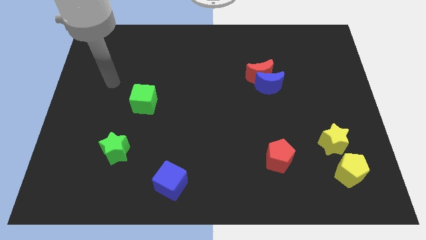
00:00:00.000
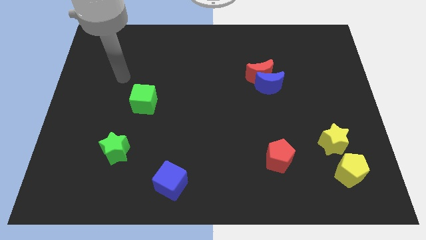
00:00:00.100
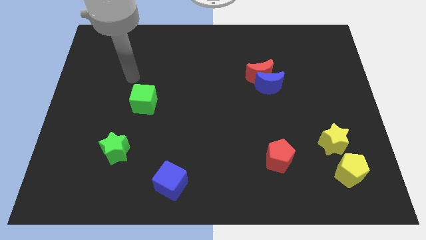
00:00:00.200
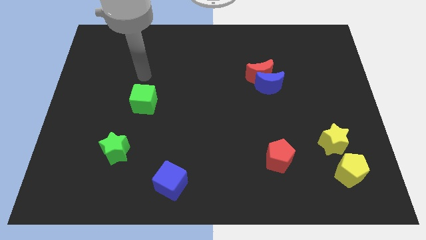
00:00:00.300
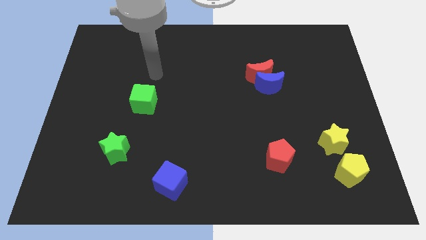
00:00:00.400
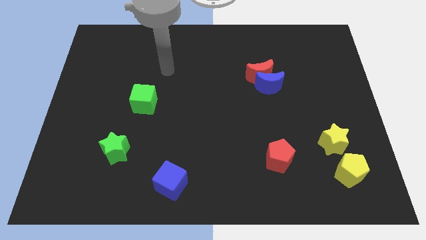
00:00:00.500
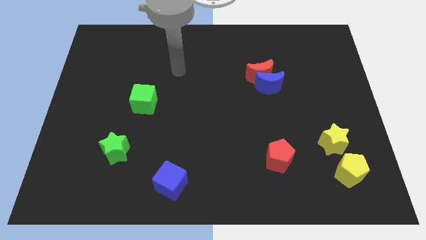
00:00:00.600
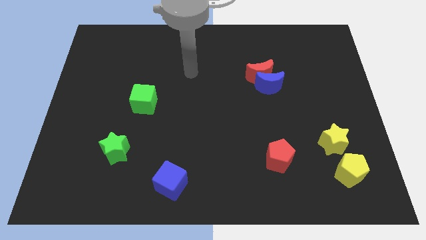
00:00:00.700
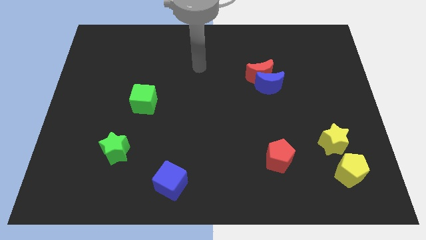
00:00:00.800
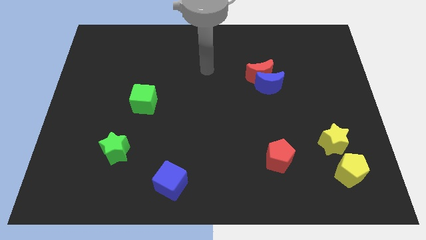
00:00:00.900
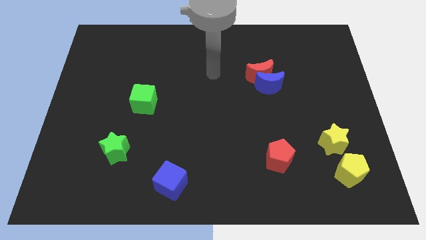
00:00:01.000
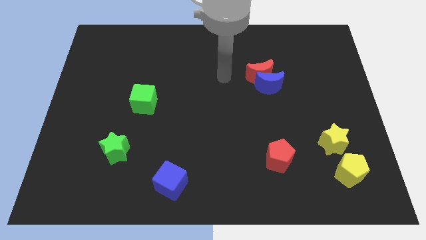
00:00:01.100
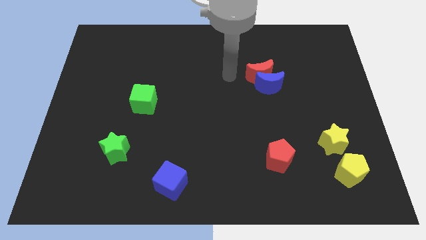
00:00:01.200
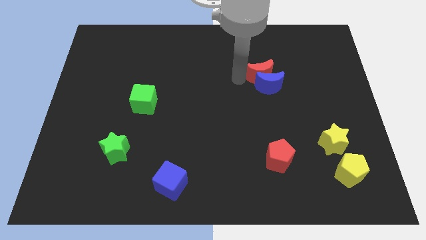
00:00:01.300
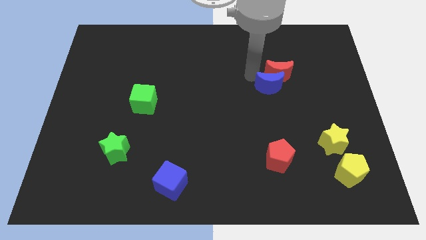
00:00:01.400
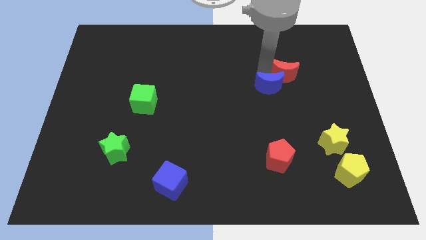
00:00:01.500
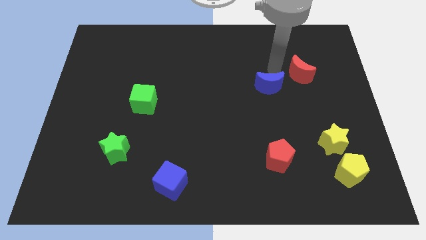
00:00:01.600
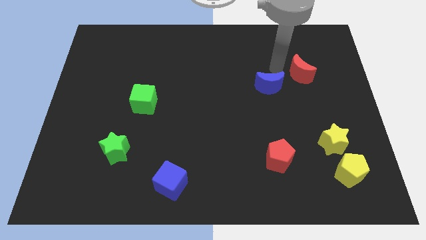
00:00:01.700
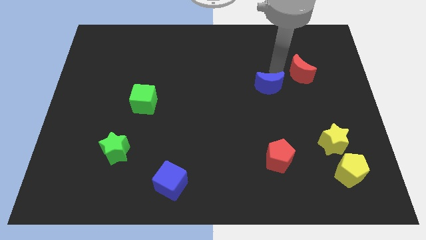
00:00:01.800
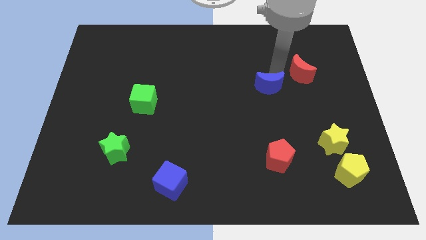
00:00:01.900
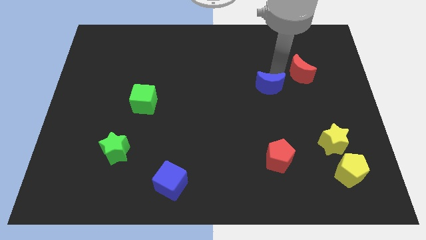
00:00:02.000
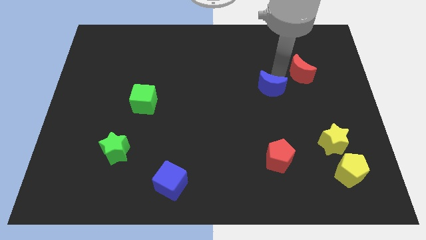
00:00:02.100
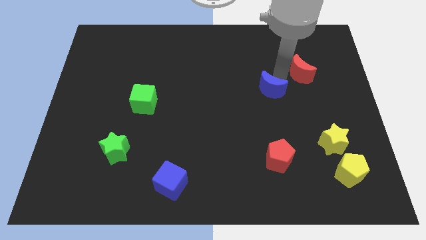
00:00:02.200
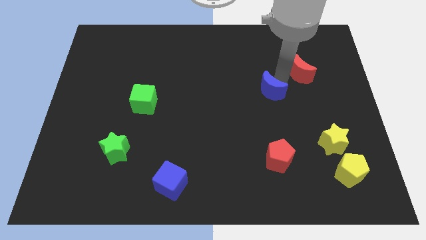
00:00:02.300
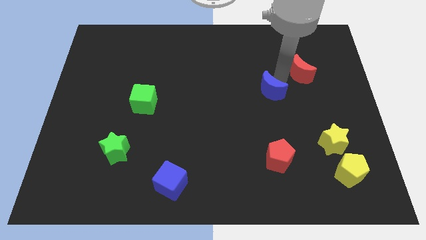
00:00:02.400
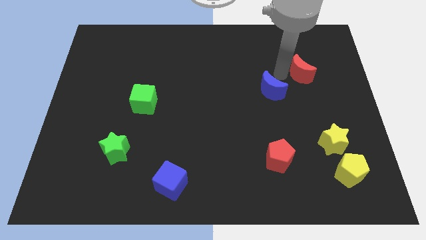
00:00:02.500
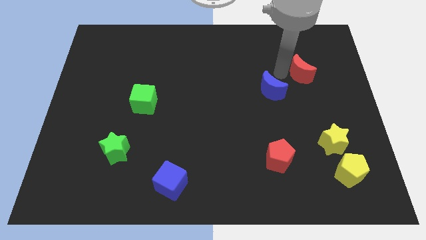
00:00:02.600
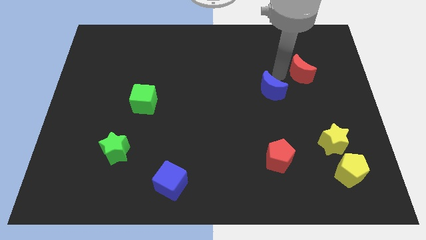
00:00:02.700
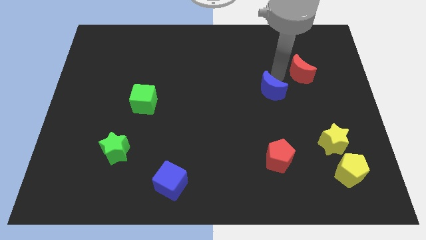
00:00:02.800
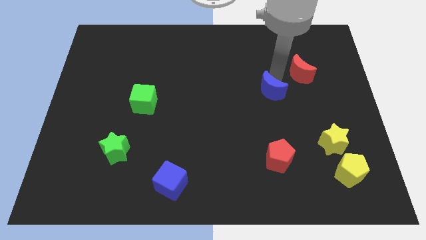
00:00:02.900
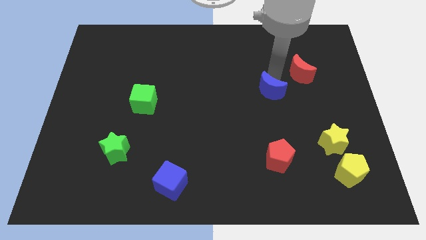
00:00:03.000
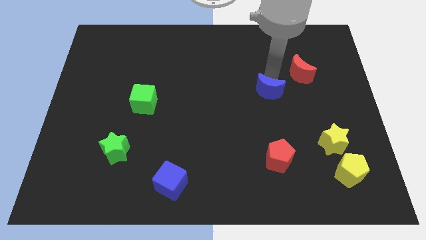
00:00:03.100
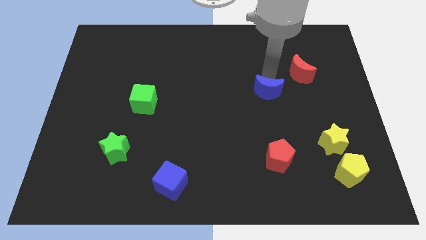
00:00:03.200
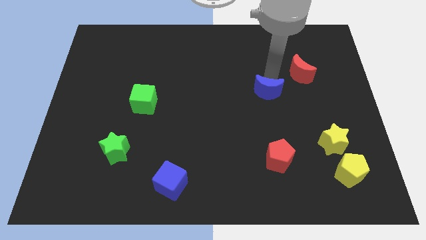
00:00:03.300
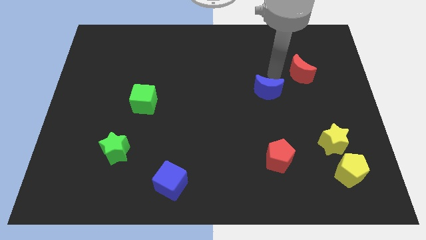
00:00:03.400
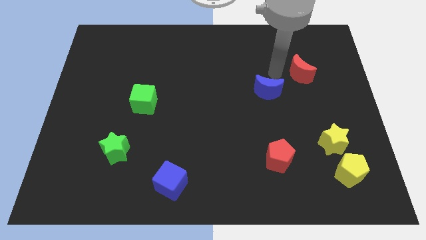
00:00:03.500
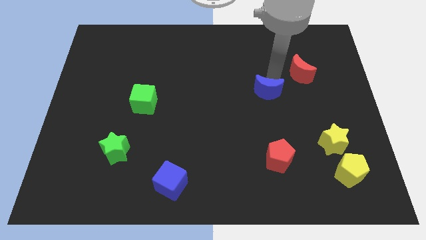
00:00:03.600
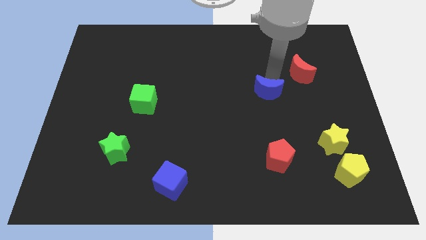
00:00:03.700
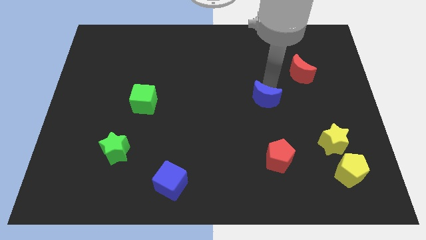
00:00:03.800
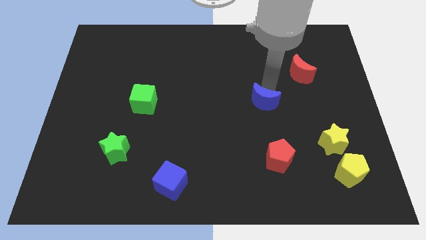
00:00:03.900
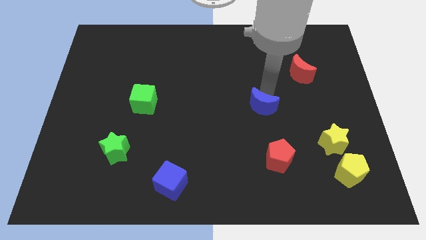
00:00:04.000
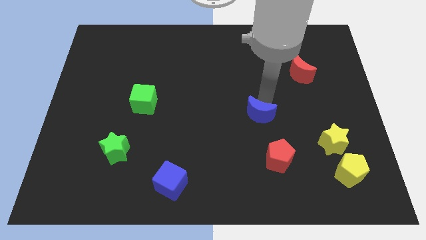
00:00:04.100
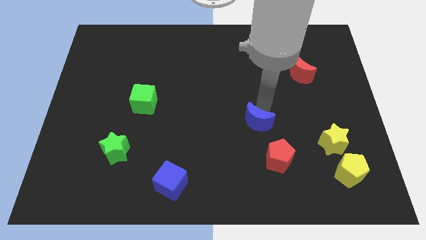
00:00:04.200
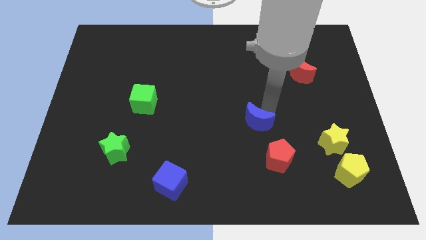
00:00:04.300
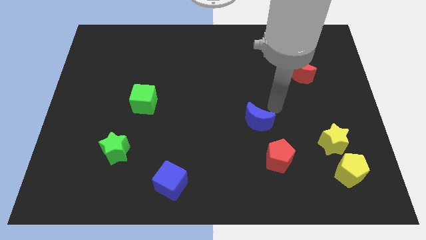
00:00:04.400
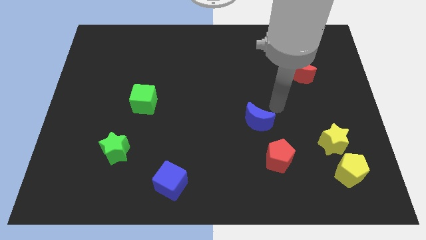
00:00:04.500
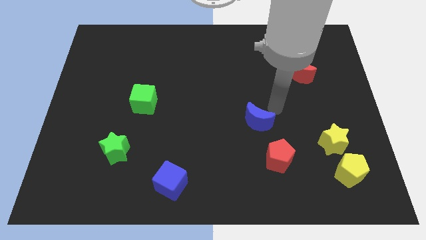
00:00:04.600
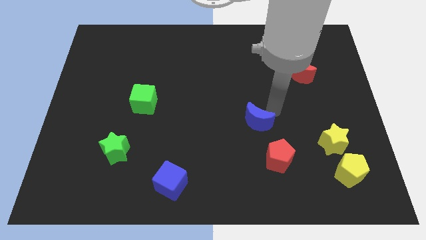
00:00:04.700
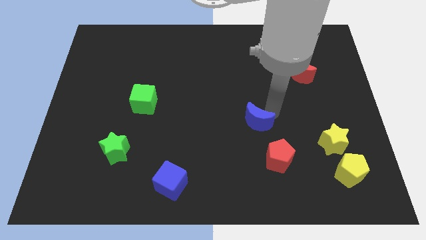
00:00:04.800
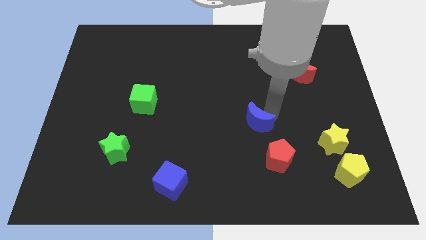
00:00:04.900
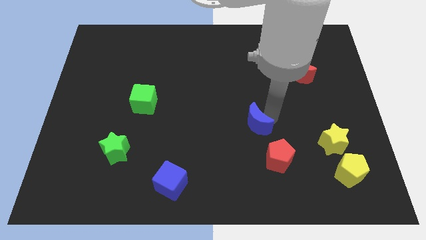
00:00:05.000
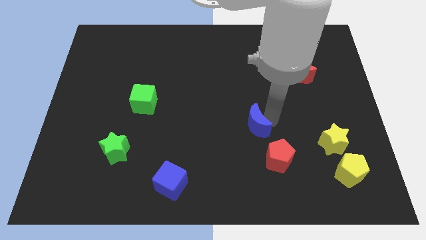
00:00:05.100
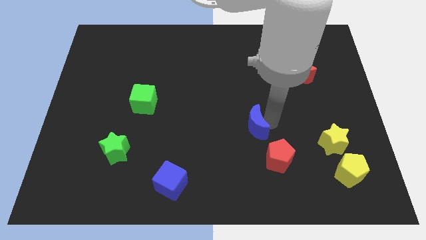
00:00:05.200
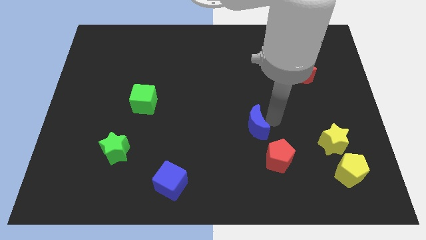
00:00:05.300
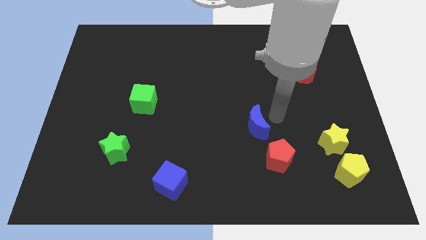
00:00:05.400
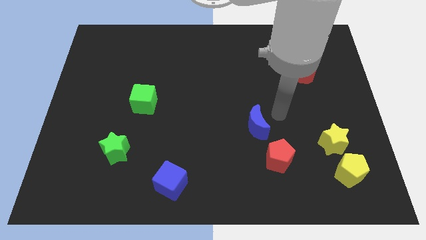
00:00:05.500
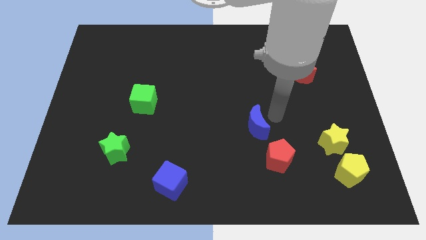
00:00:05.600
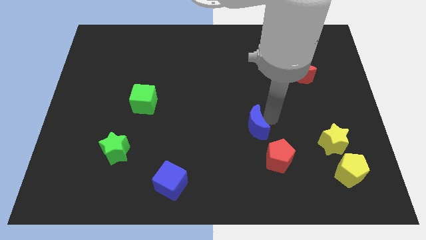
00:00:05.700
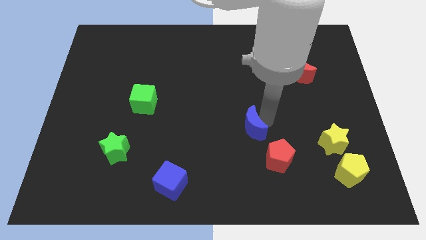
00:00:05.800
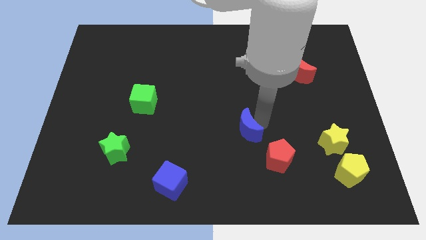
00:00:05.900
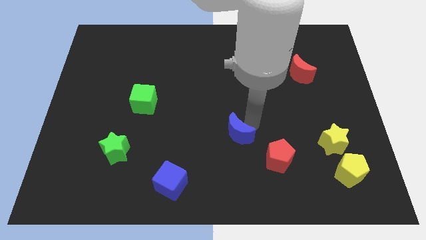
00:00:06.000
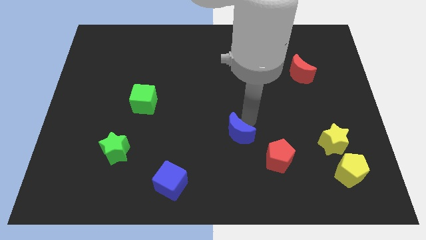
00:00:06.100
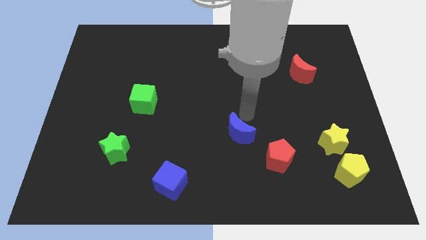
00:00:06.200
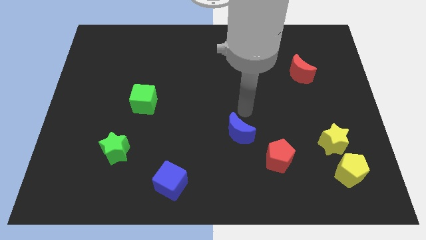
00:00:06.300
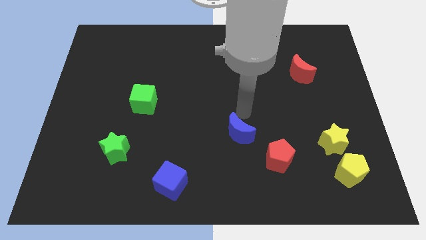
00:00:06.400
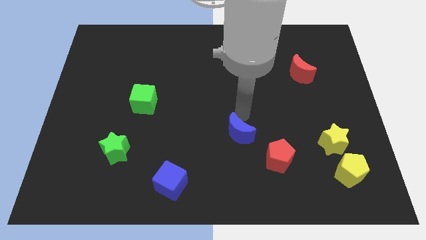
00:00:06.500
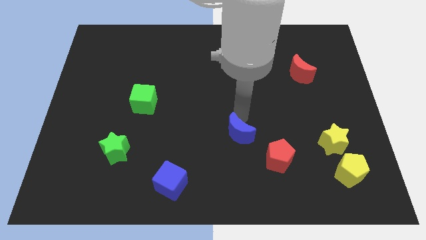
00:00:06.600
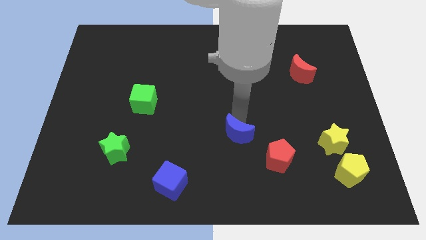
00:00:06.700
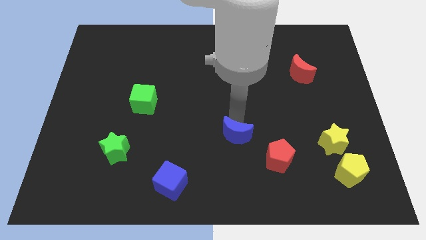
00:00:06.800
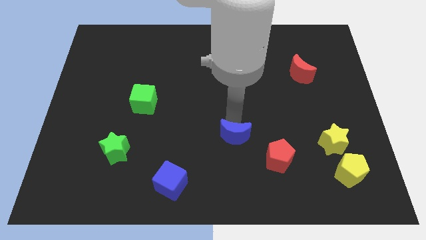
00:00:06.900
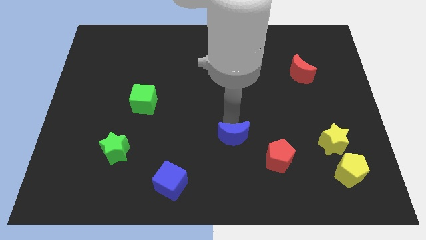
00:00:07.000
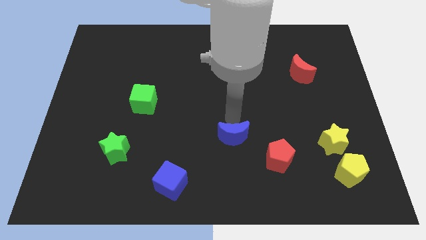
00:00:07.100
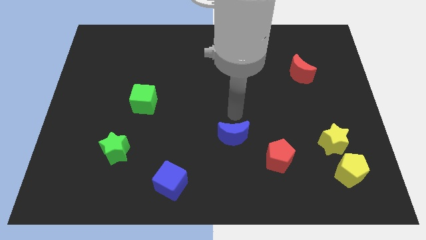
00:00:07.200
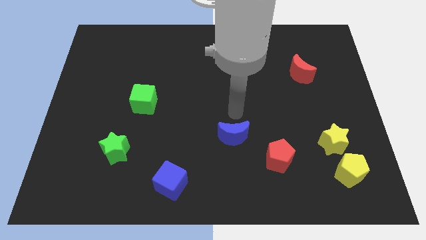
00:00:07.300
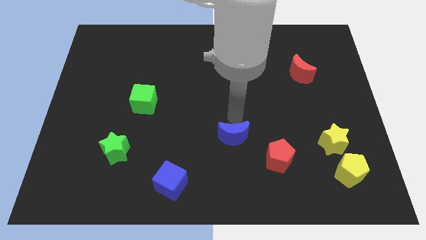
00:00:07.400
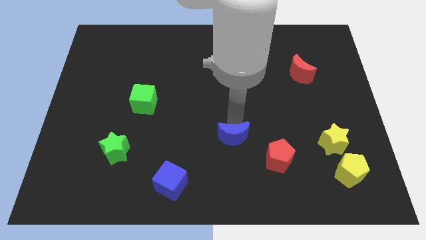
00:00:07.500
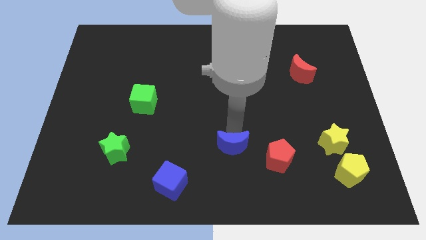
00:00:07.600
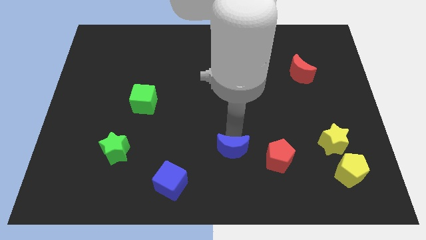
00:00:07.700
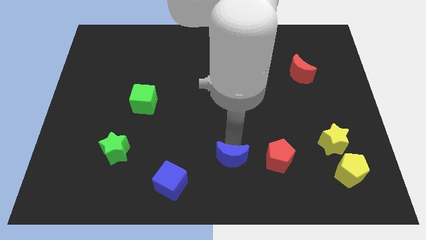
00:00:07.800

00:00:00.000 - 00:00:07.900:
move the blue moon to the bottom side
